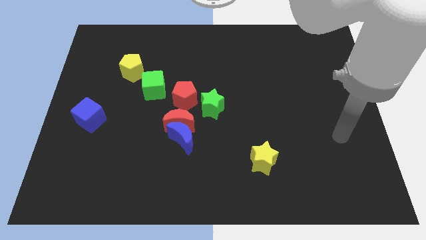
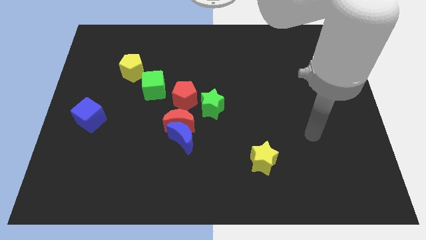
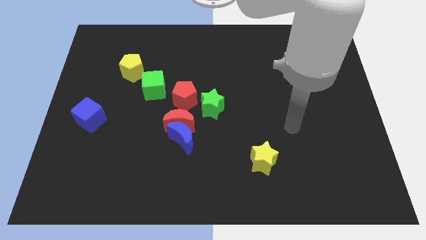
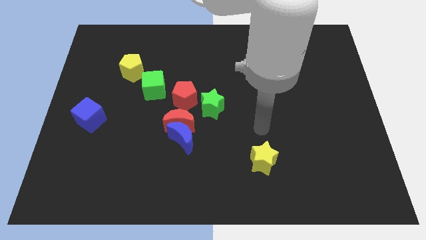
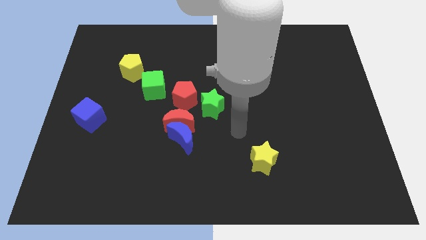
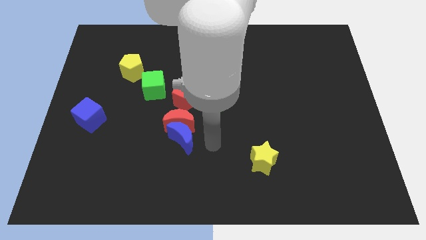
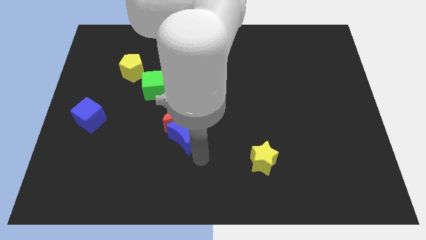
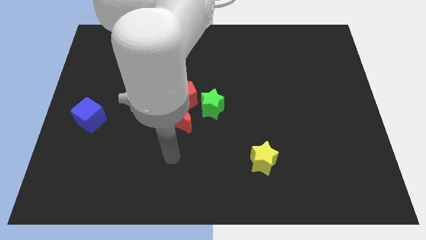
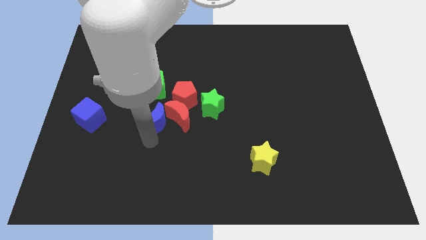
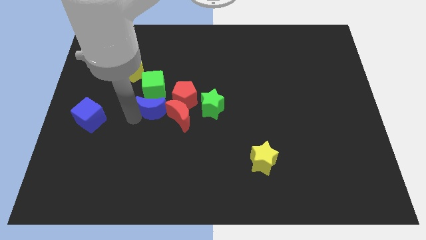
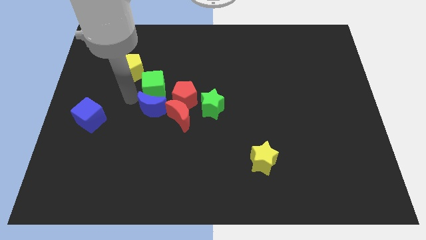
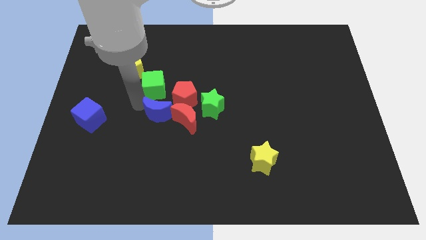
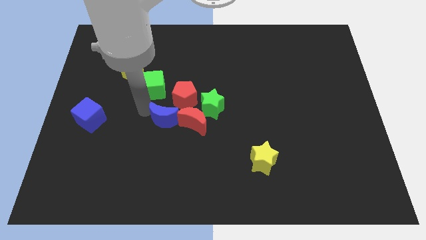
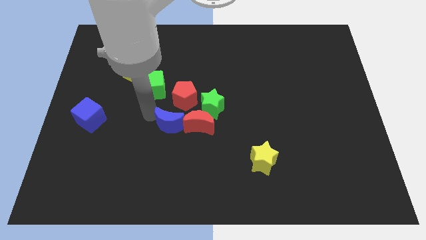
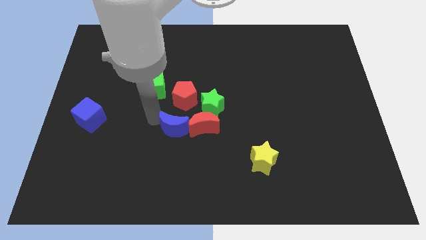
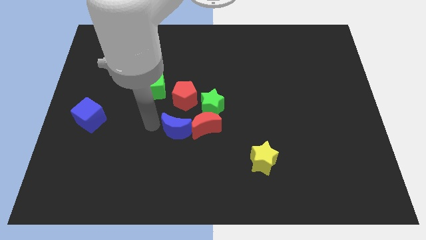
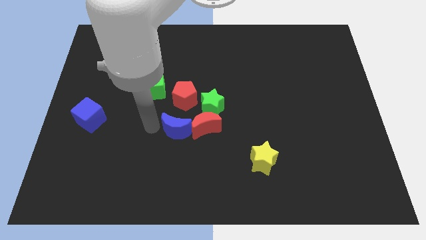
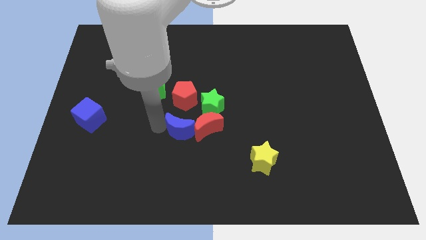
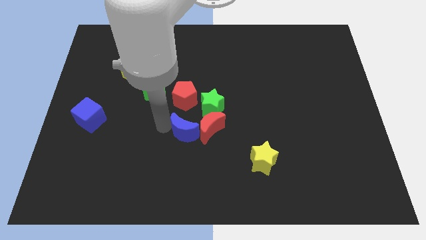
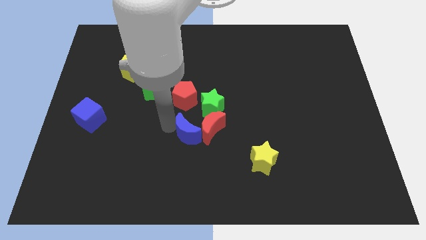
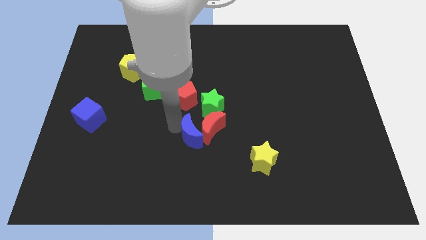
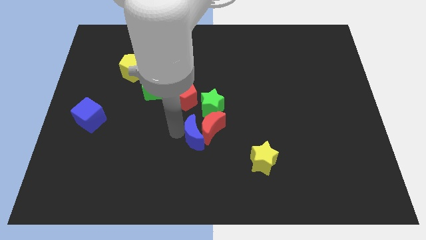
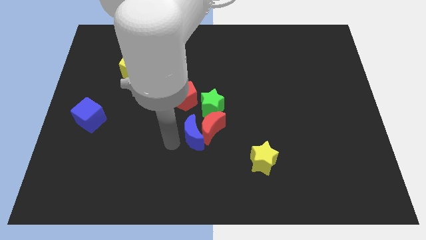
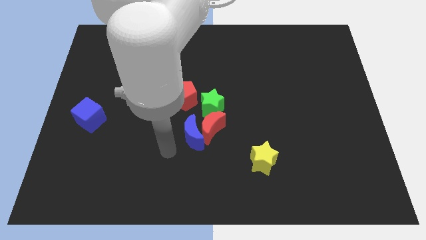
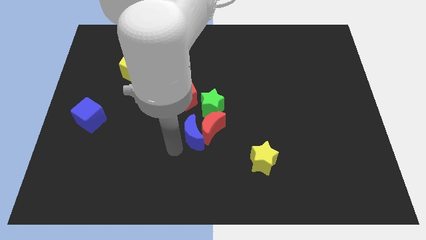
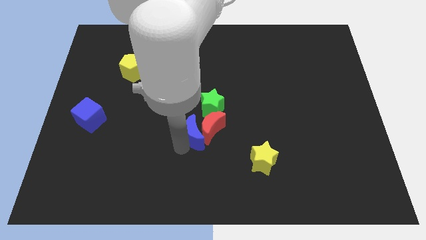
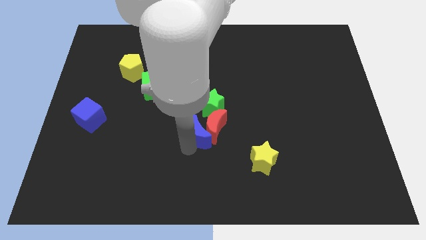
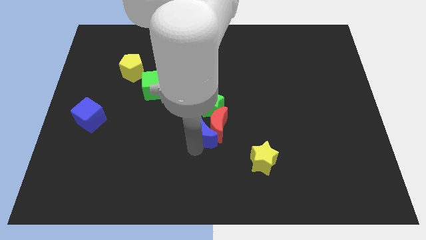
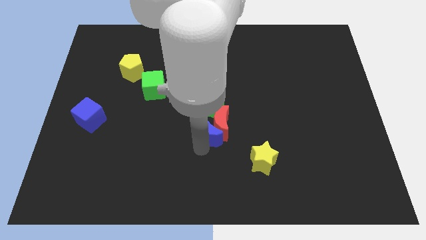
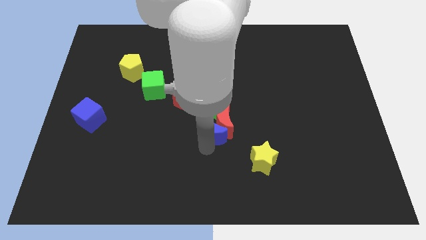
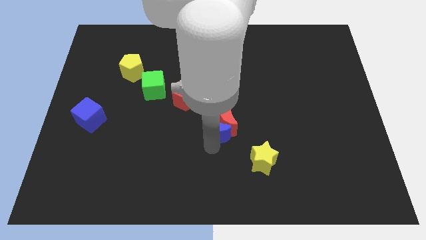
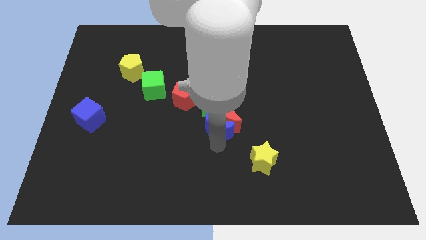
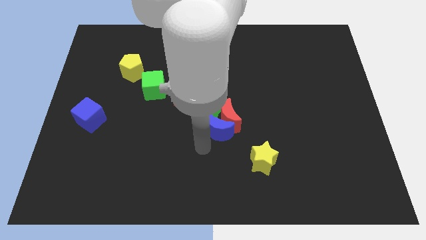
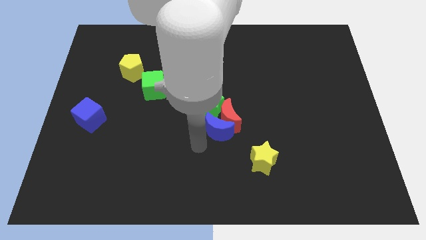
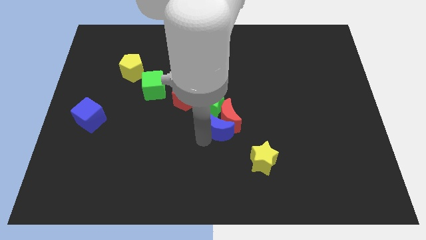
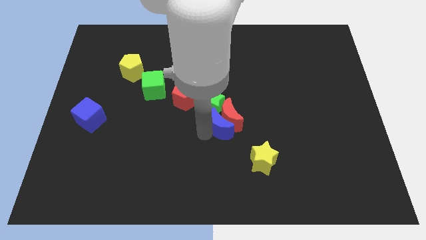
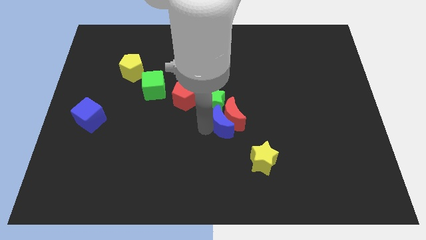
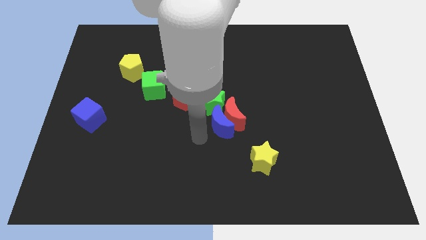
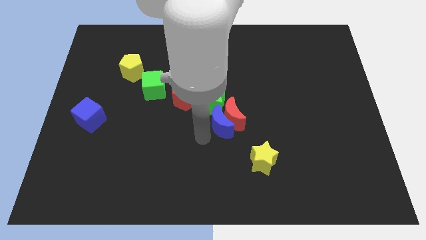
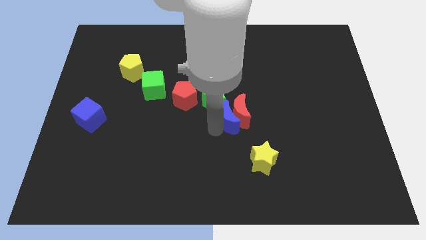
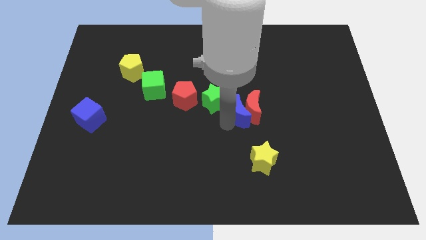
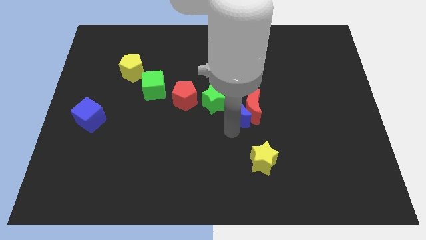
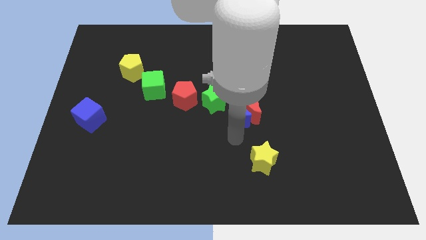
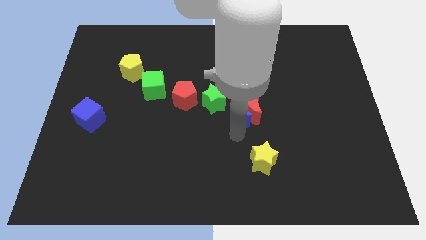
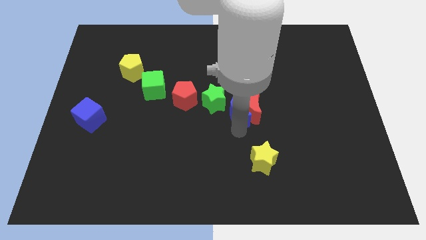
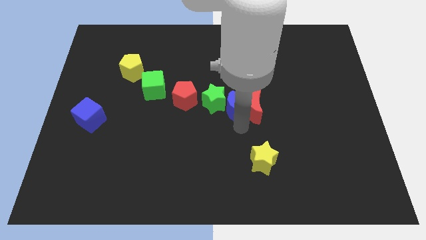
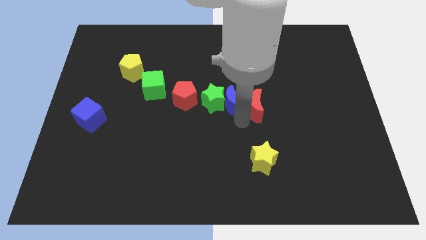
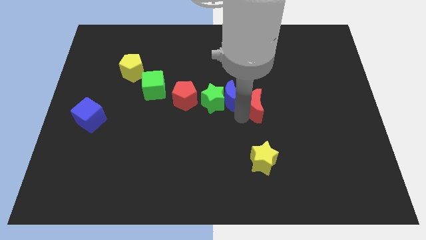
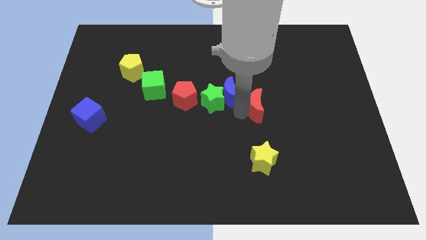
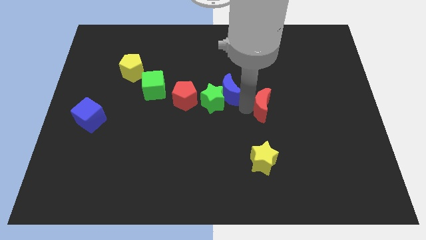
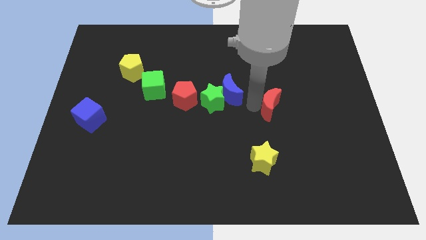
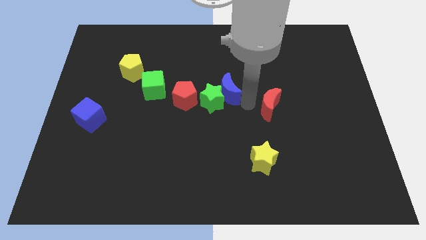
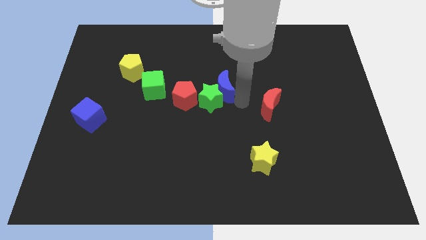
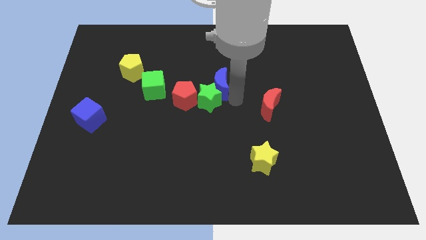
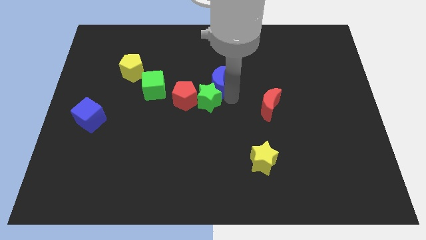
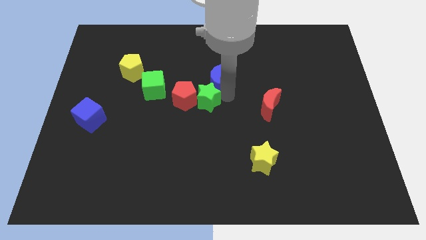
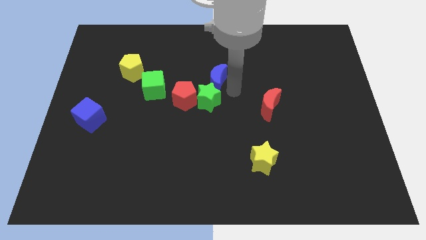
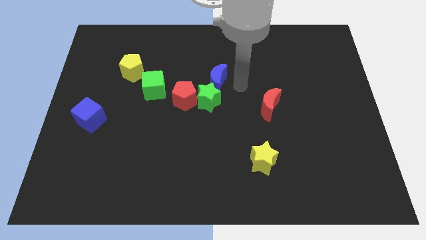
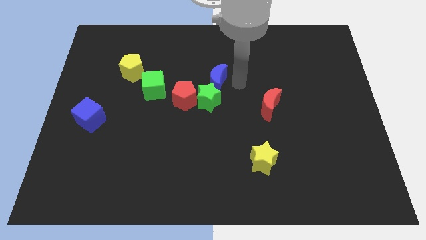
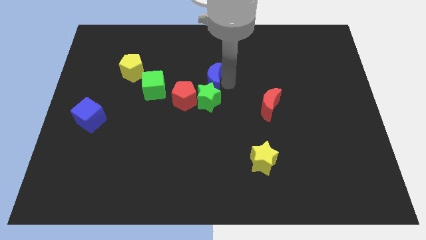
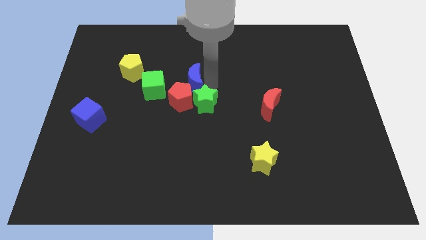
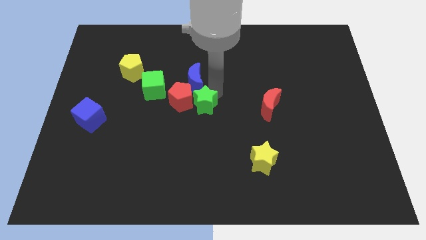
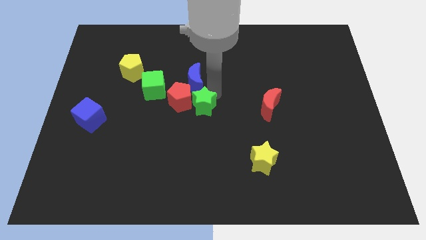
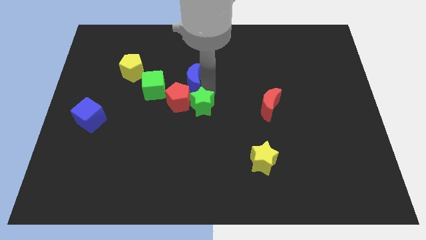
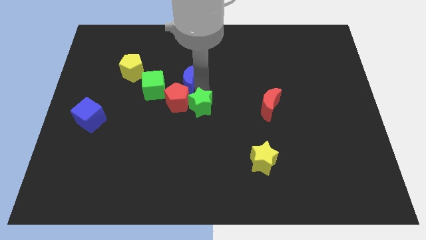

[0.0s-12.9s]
put the blue moon to the top right of the green cube
